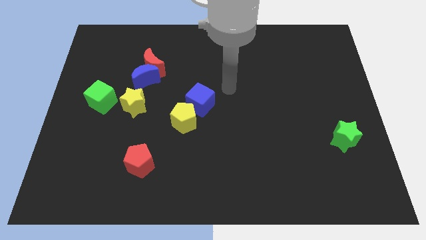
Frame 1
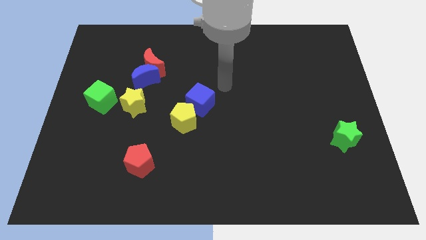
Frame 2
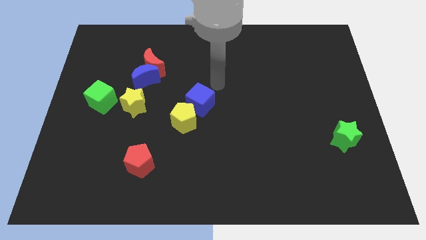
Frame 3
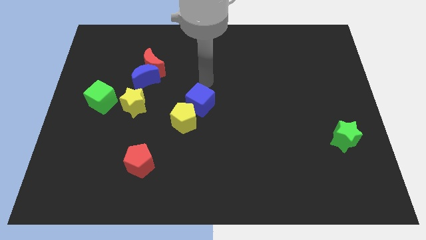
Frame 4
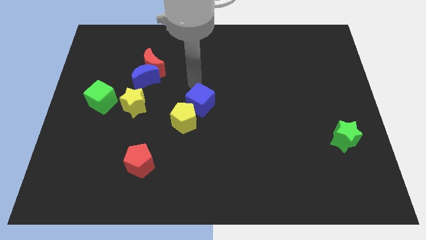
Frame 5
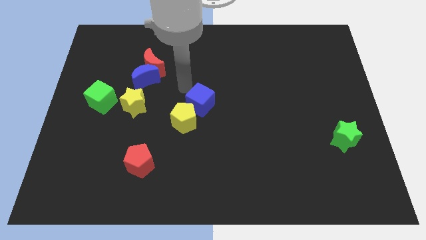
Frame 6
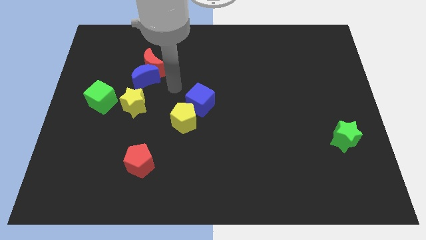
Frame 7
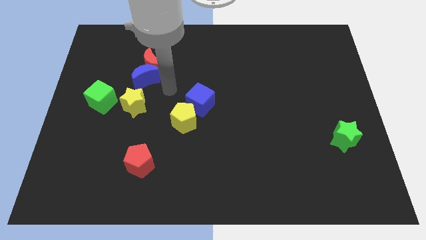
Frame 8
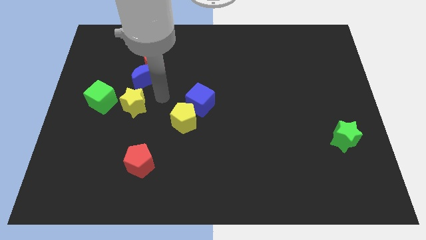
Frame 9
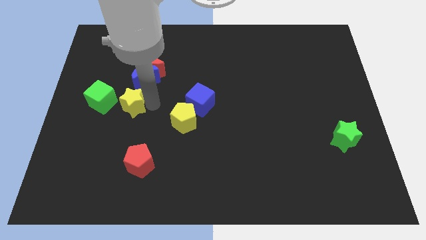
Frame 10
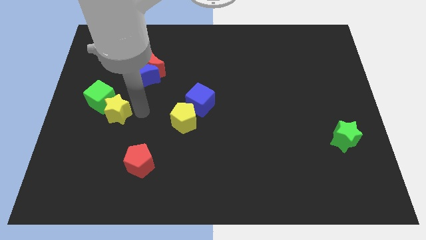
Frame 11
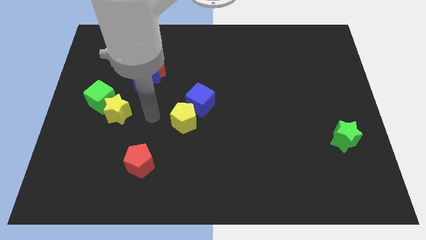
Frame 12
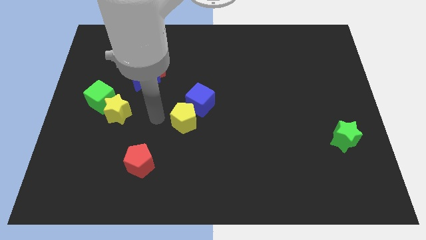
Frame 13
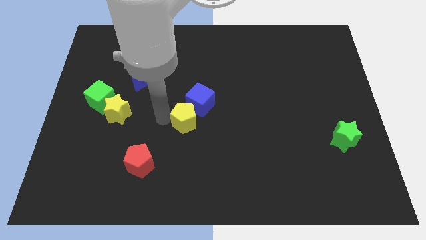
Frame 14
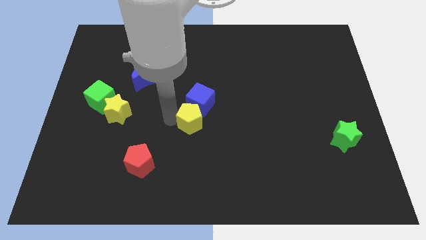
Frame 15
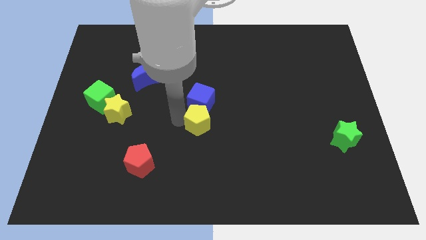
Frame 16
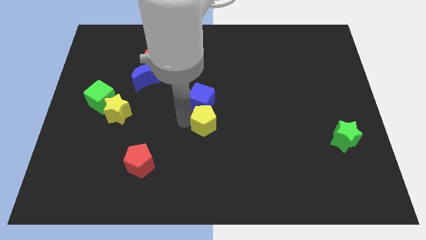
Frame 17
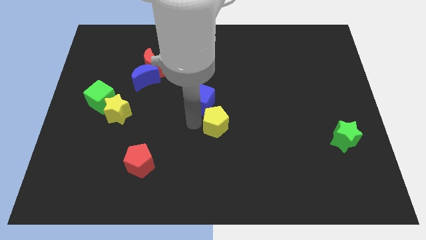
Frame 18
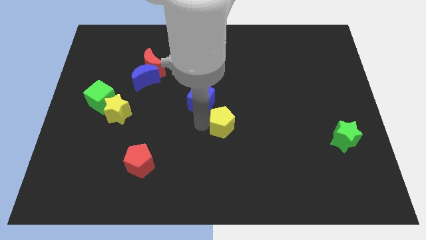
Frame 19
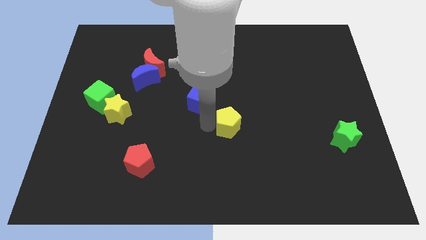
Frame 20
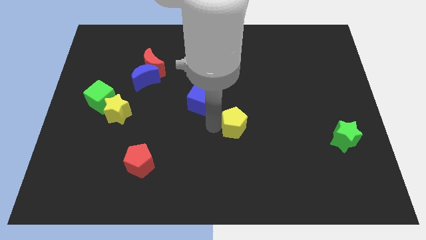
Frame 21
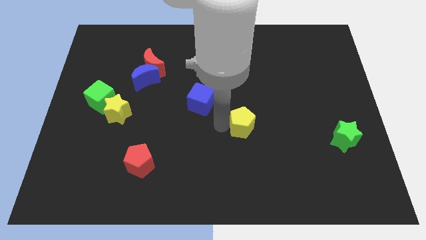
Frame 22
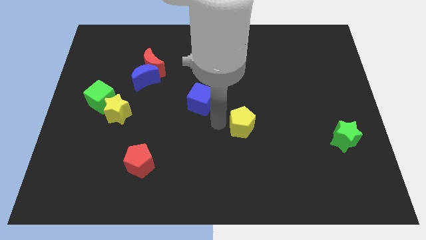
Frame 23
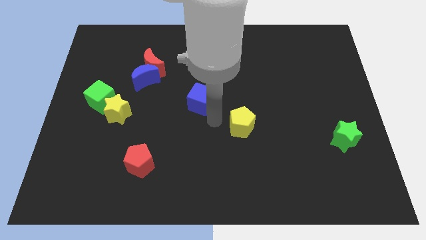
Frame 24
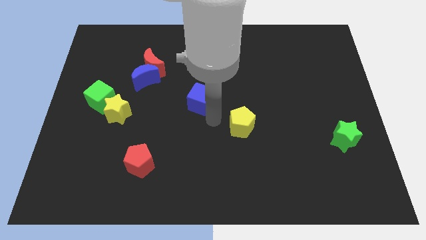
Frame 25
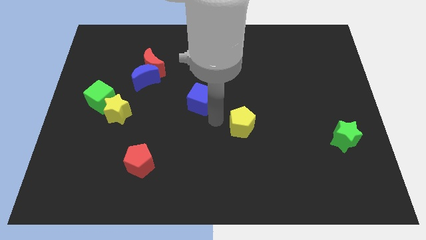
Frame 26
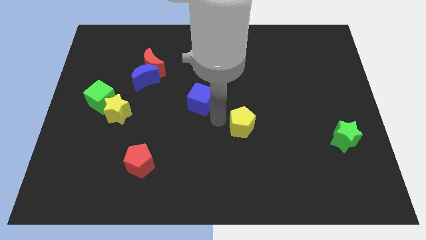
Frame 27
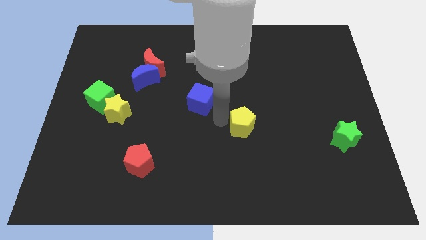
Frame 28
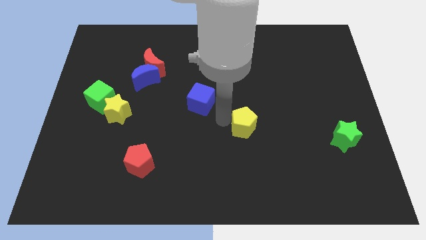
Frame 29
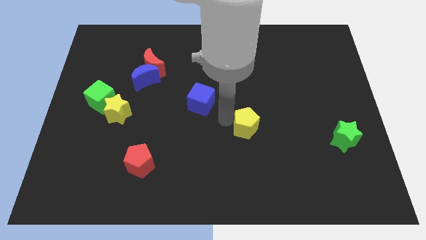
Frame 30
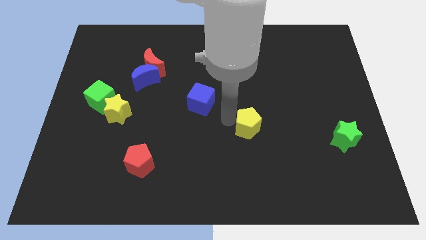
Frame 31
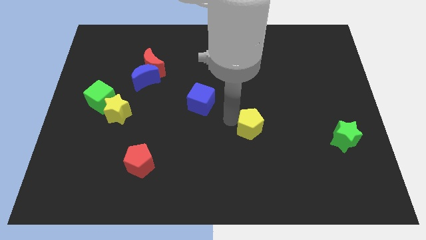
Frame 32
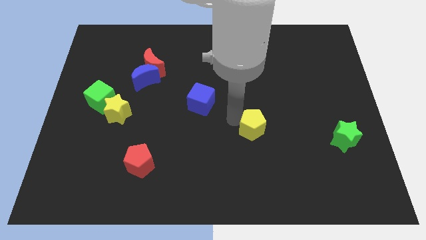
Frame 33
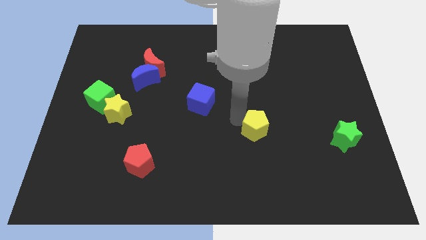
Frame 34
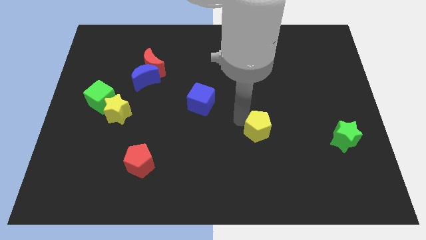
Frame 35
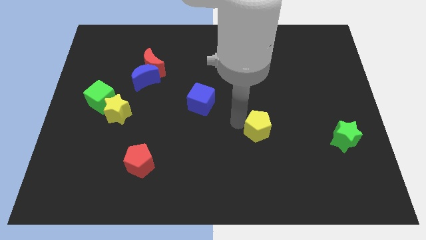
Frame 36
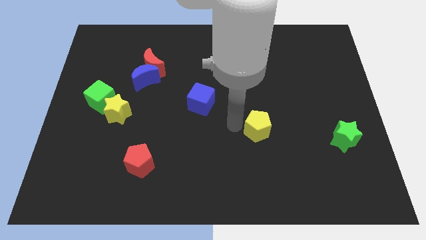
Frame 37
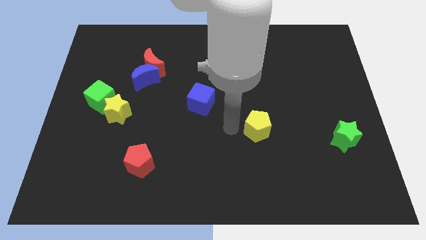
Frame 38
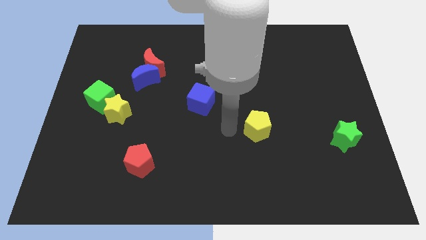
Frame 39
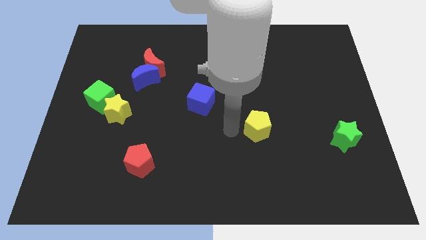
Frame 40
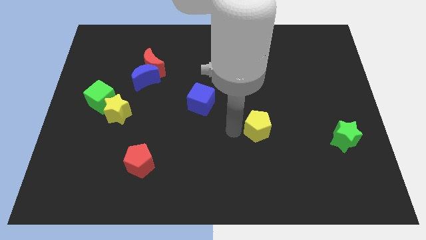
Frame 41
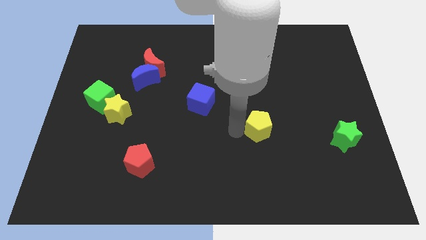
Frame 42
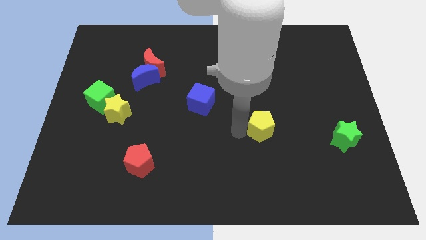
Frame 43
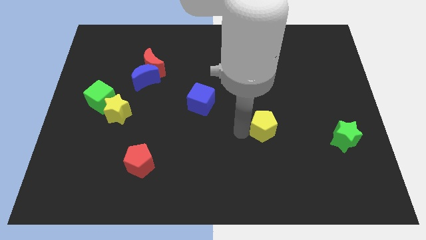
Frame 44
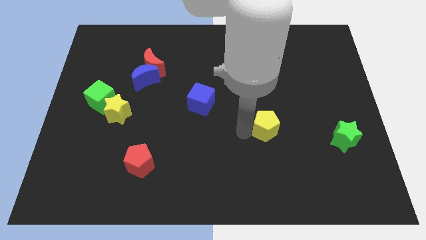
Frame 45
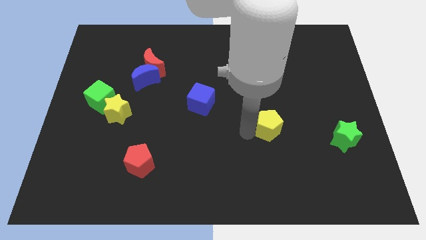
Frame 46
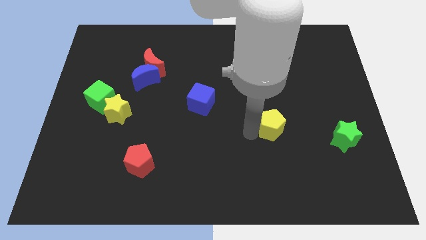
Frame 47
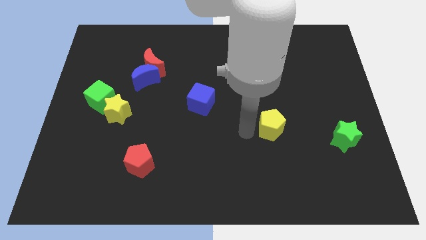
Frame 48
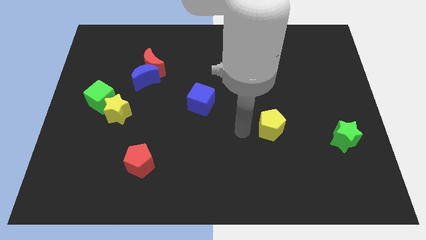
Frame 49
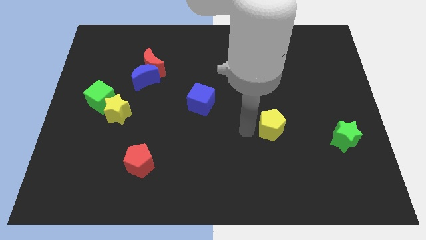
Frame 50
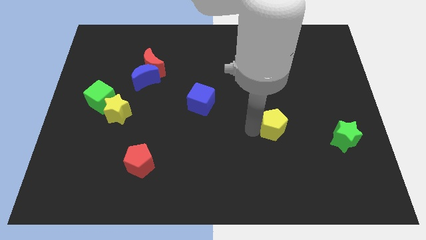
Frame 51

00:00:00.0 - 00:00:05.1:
slide the yellow pentagon right

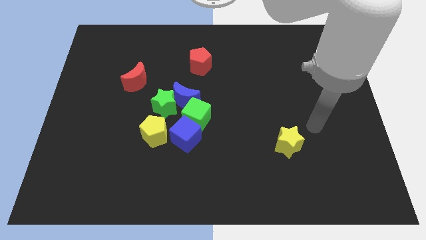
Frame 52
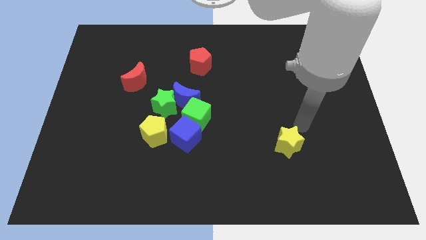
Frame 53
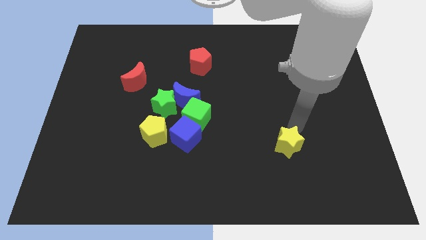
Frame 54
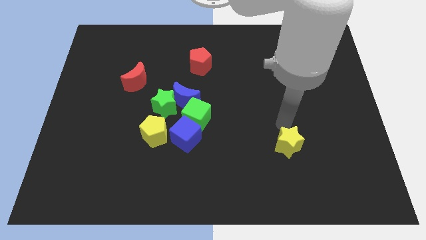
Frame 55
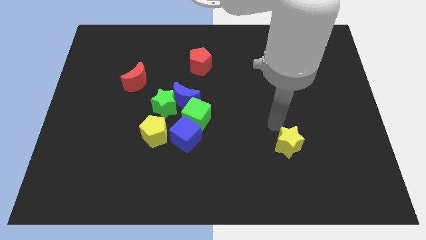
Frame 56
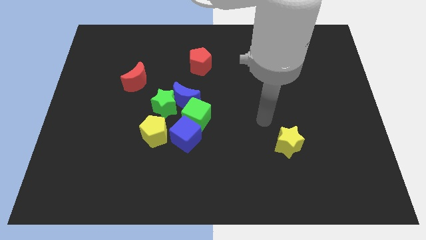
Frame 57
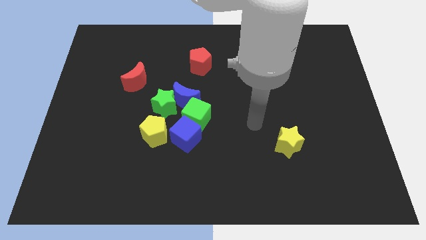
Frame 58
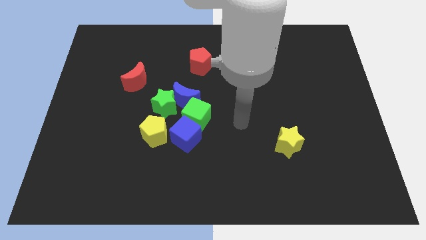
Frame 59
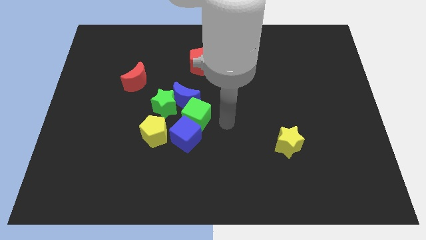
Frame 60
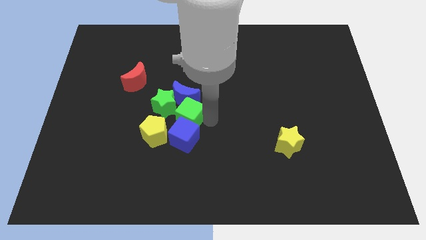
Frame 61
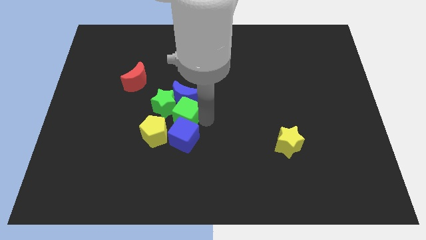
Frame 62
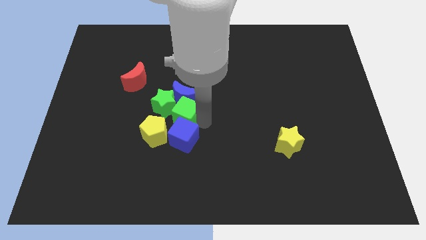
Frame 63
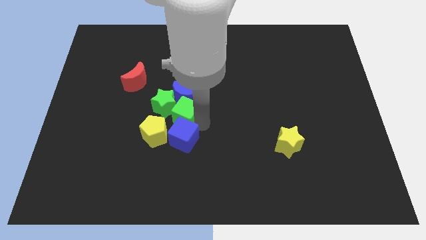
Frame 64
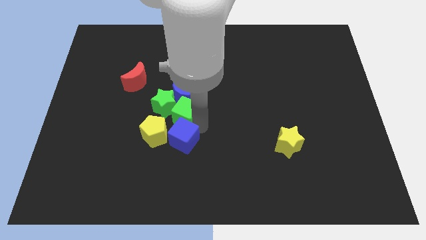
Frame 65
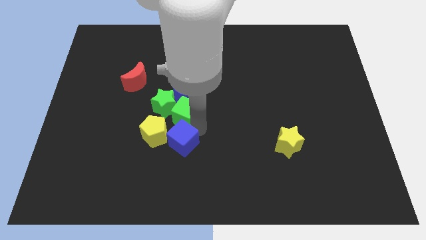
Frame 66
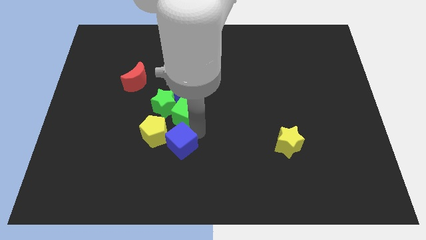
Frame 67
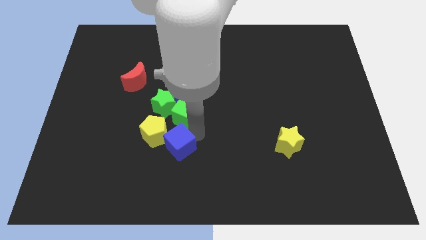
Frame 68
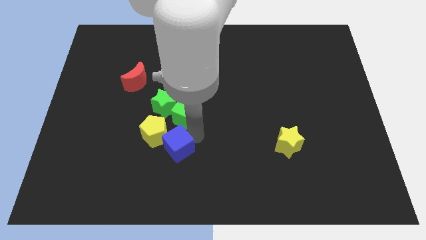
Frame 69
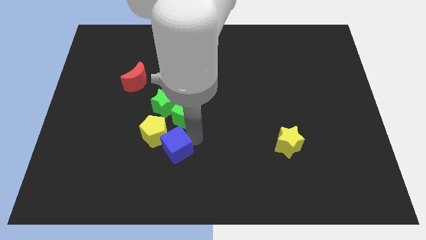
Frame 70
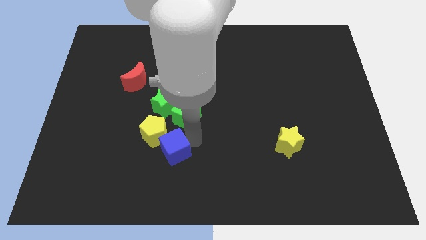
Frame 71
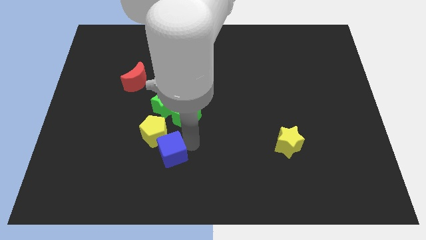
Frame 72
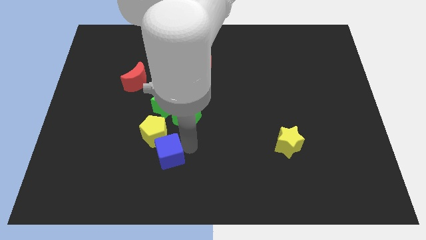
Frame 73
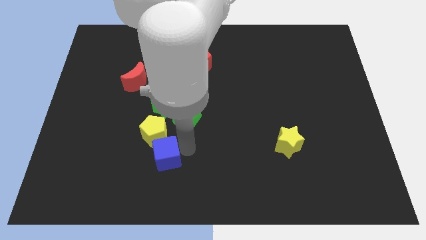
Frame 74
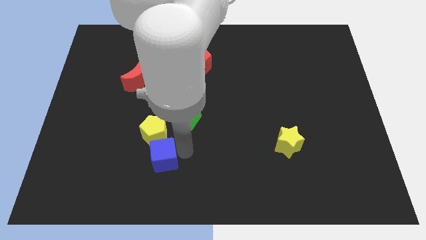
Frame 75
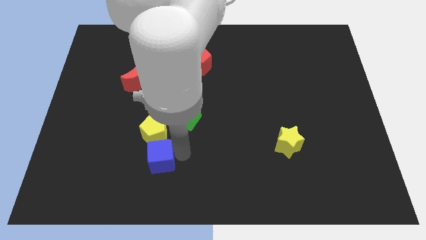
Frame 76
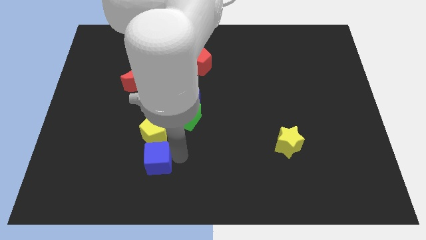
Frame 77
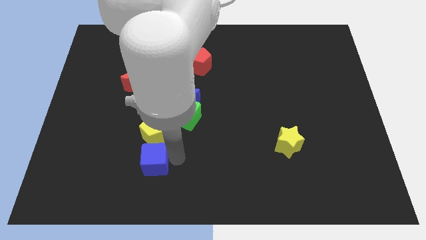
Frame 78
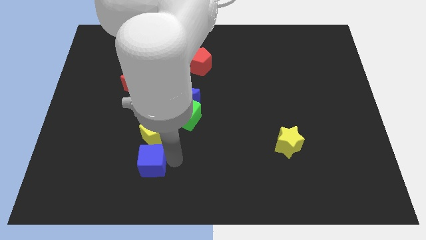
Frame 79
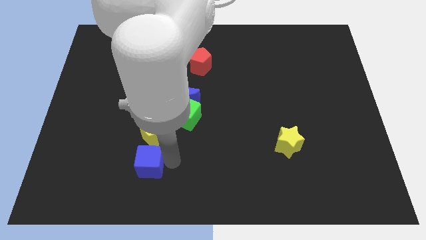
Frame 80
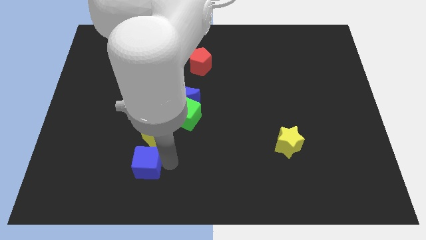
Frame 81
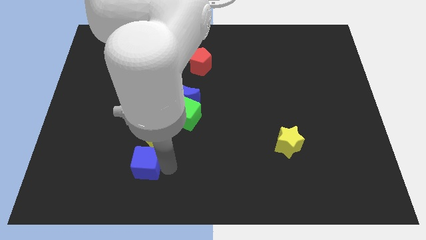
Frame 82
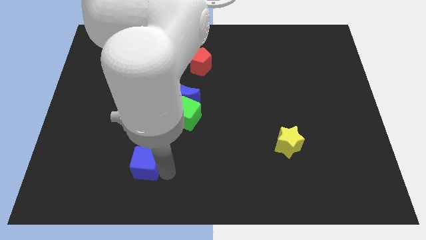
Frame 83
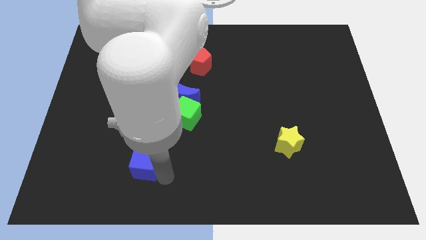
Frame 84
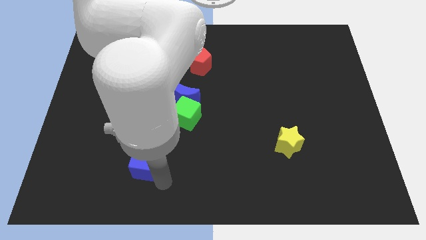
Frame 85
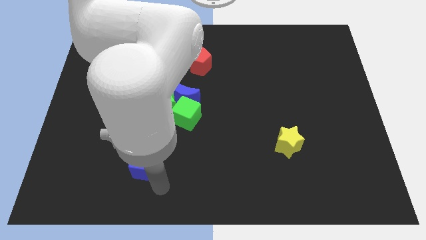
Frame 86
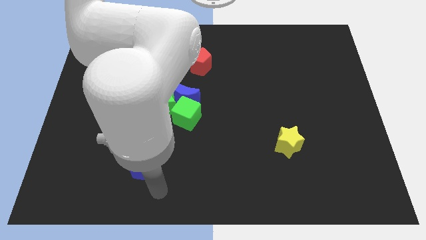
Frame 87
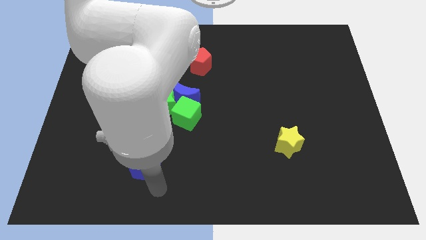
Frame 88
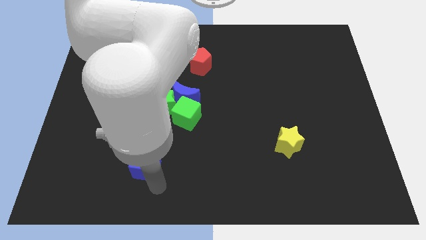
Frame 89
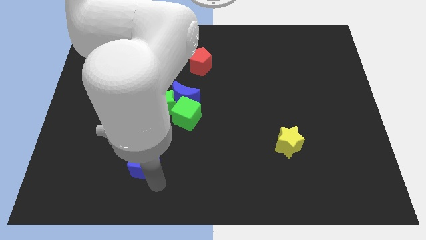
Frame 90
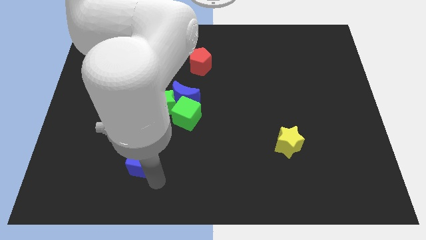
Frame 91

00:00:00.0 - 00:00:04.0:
push the blue cube somewhat left
